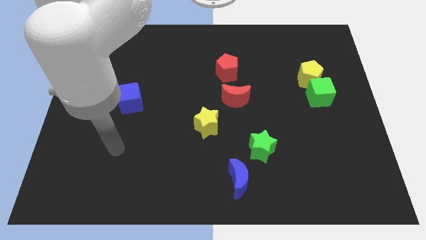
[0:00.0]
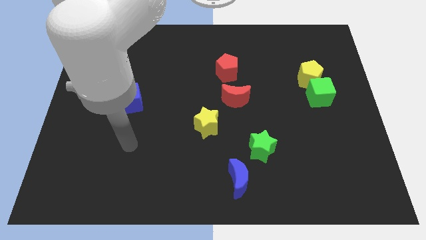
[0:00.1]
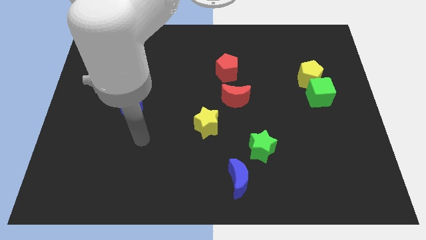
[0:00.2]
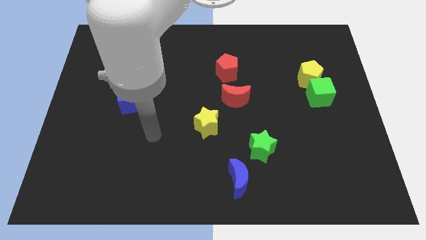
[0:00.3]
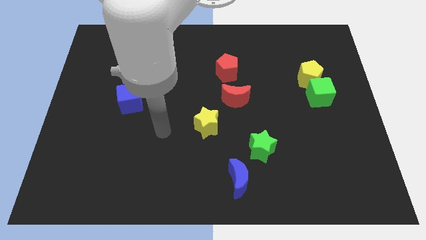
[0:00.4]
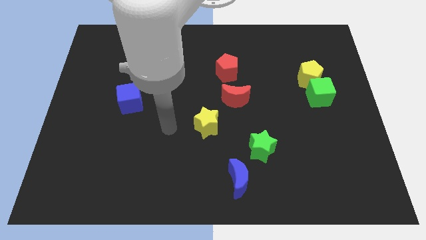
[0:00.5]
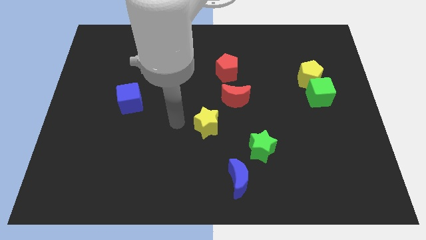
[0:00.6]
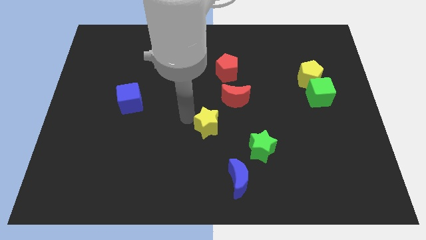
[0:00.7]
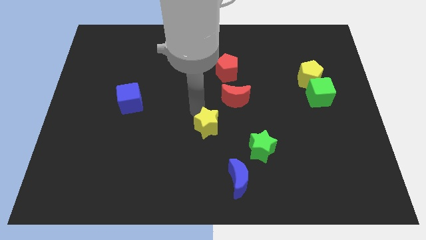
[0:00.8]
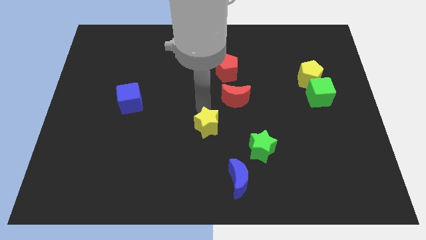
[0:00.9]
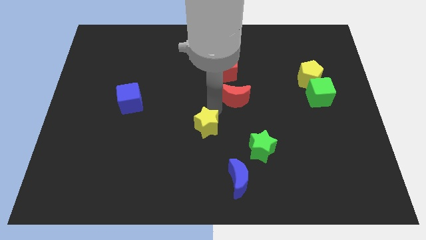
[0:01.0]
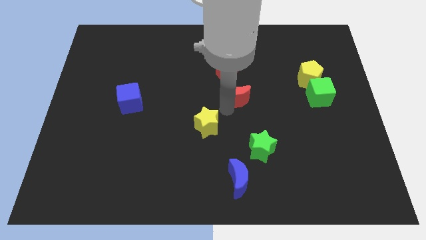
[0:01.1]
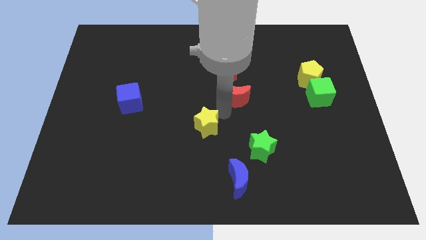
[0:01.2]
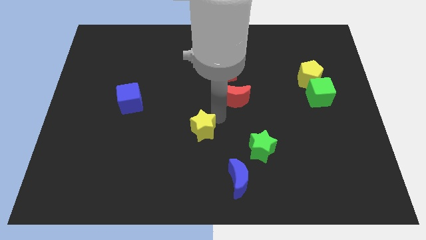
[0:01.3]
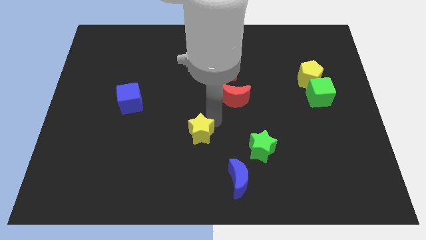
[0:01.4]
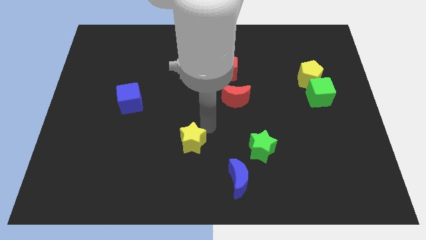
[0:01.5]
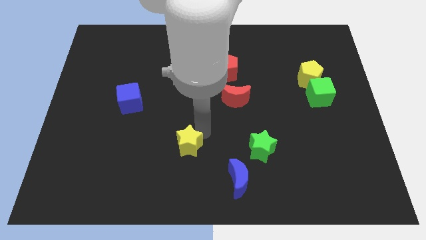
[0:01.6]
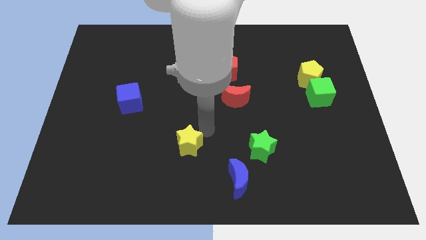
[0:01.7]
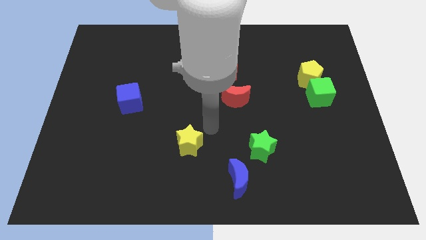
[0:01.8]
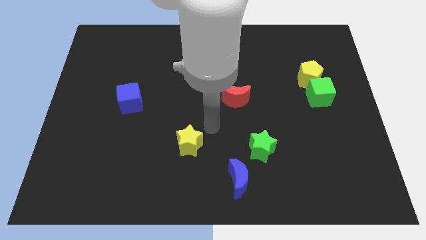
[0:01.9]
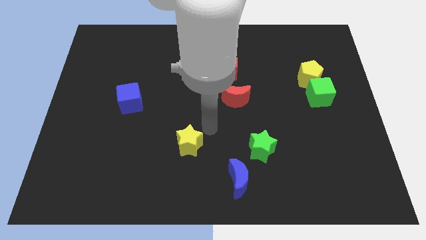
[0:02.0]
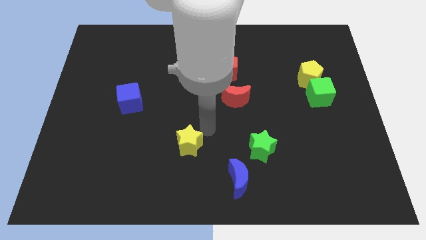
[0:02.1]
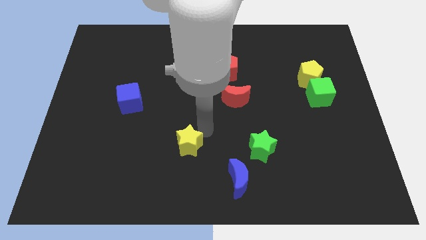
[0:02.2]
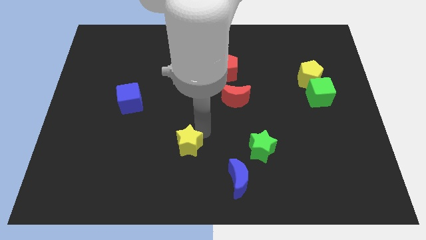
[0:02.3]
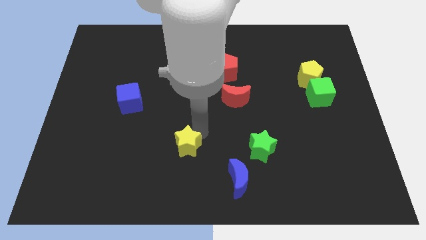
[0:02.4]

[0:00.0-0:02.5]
slightly push the yellow star downwards and then to the left

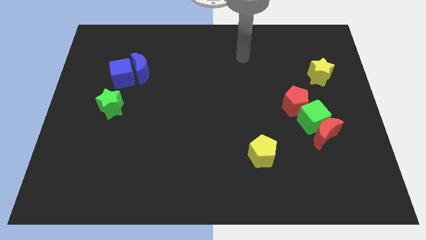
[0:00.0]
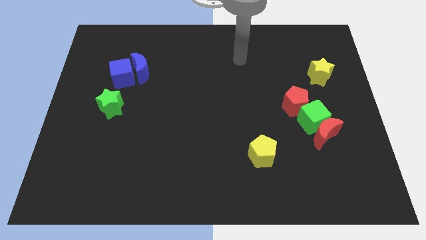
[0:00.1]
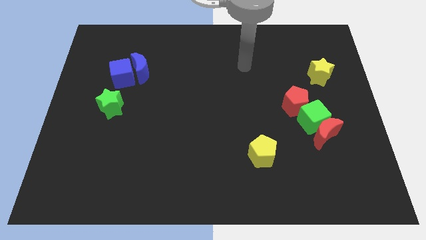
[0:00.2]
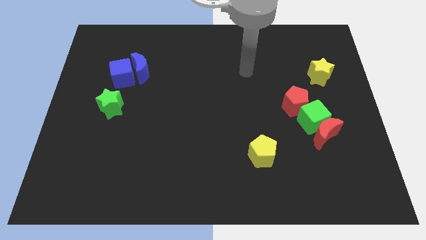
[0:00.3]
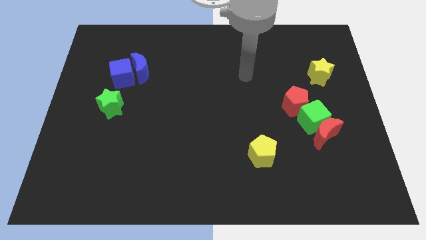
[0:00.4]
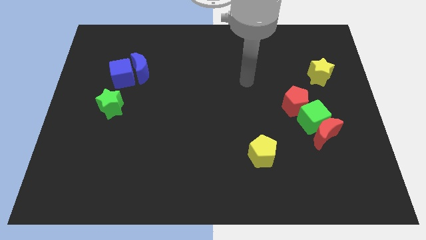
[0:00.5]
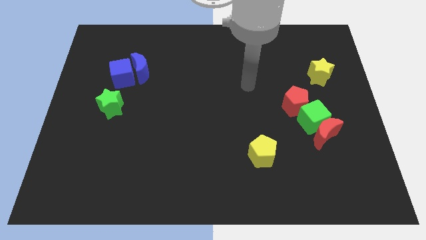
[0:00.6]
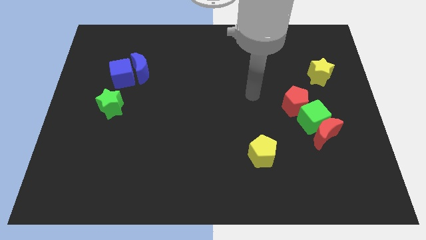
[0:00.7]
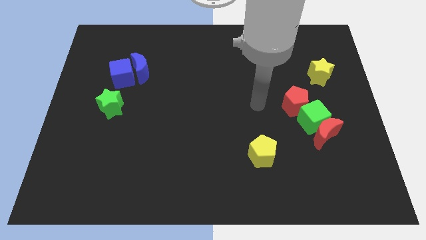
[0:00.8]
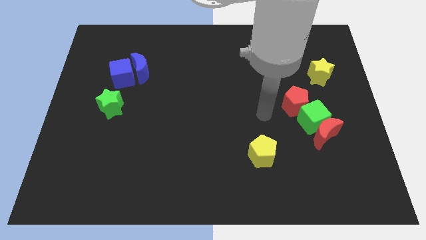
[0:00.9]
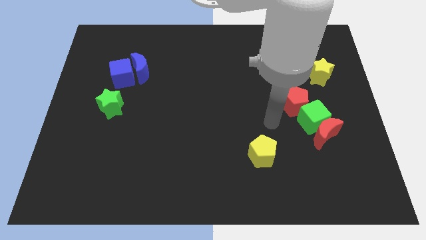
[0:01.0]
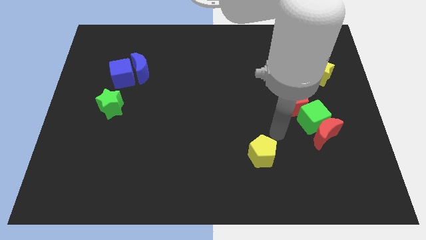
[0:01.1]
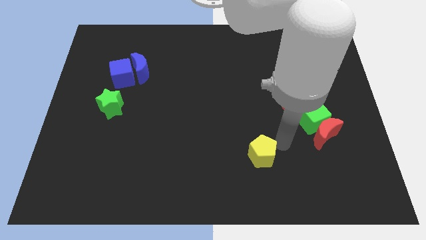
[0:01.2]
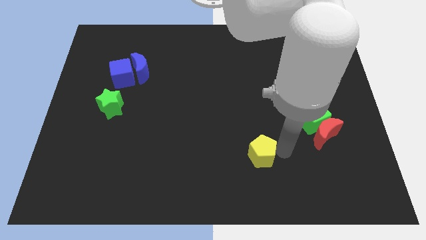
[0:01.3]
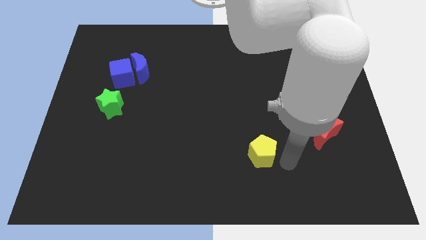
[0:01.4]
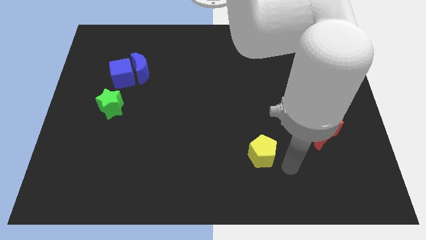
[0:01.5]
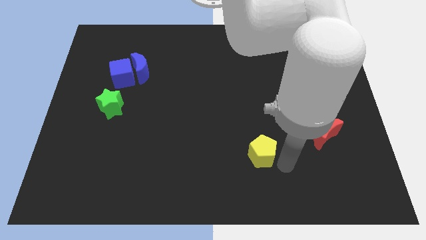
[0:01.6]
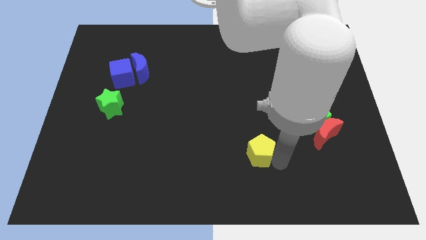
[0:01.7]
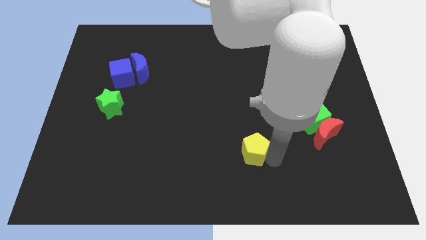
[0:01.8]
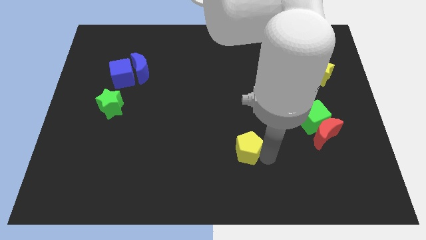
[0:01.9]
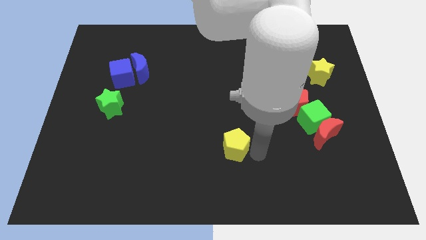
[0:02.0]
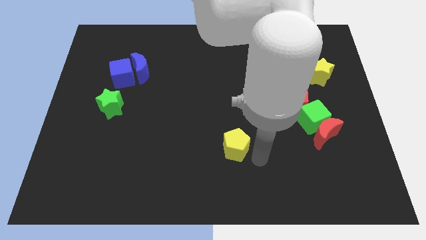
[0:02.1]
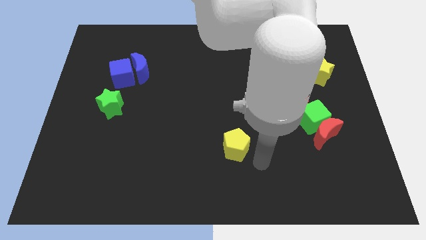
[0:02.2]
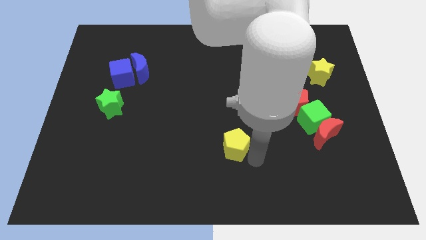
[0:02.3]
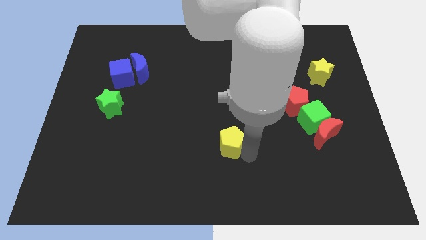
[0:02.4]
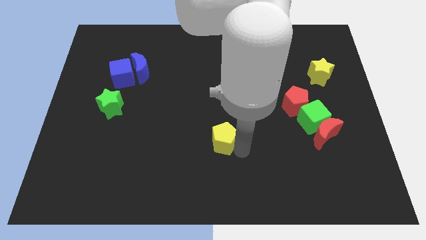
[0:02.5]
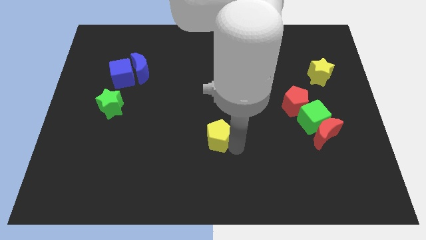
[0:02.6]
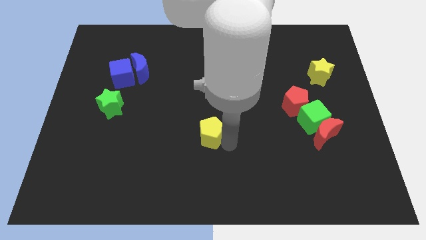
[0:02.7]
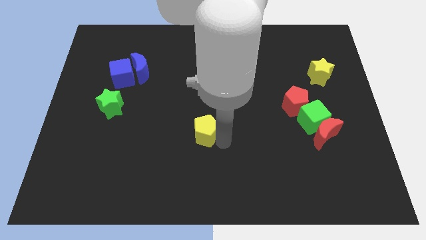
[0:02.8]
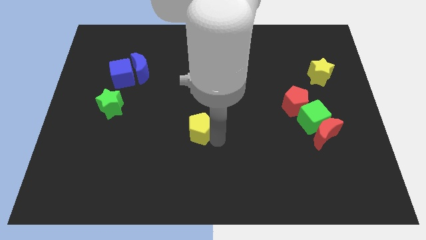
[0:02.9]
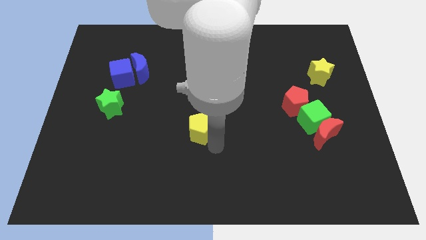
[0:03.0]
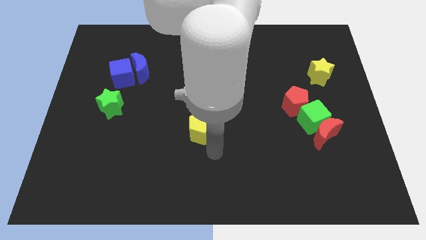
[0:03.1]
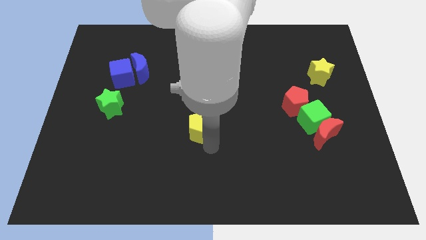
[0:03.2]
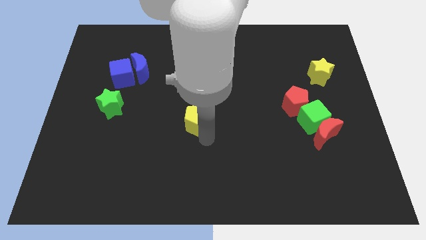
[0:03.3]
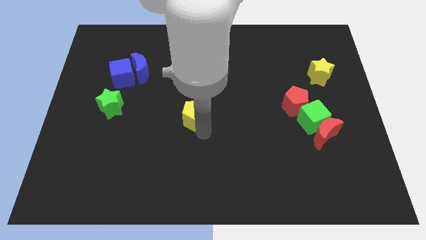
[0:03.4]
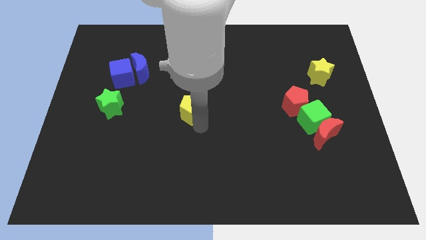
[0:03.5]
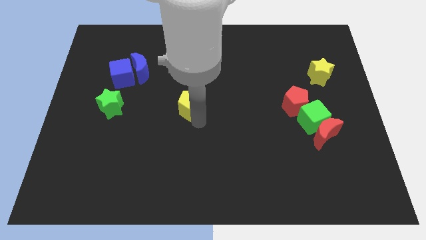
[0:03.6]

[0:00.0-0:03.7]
move the yellow pentagon upwards and left diagonally

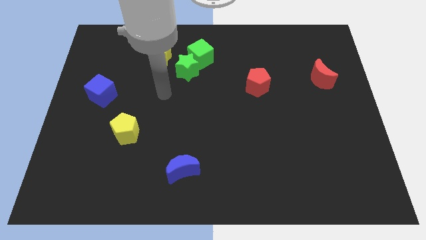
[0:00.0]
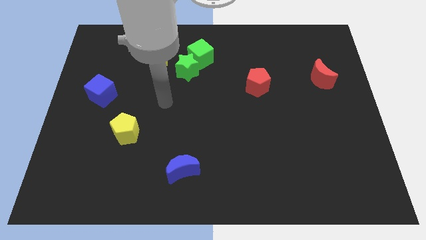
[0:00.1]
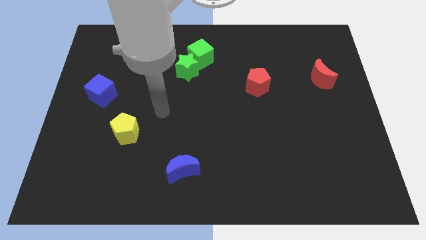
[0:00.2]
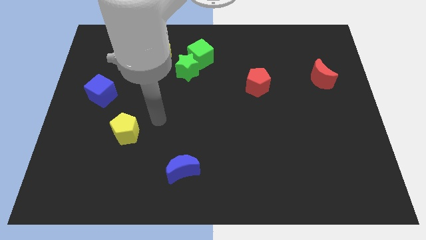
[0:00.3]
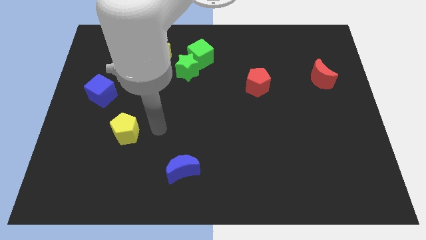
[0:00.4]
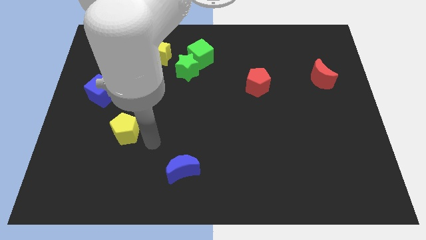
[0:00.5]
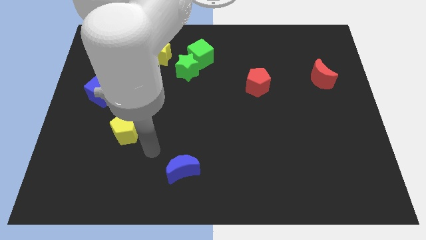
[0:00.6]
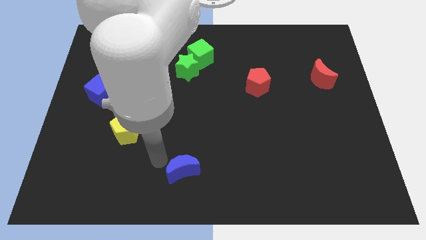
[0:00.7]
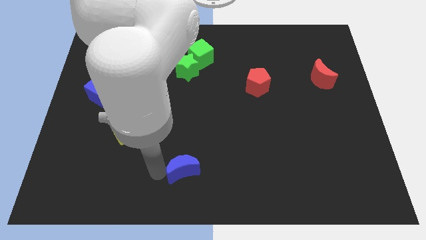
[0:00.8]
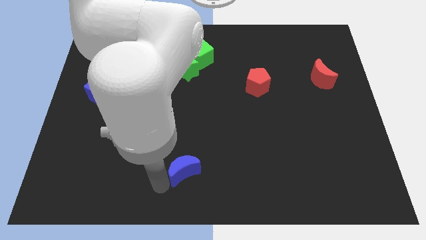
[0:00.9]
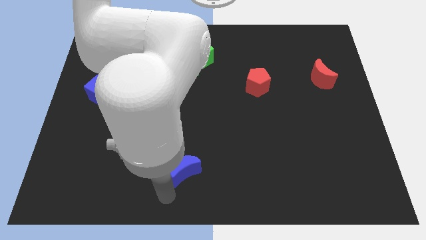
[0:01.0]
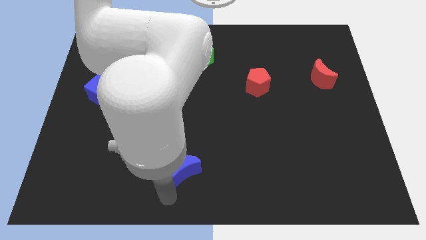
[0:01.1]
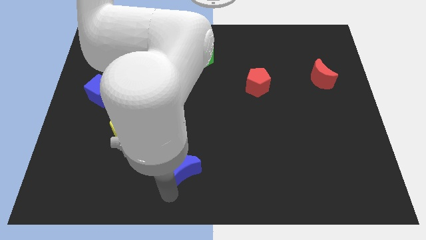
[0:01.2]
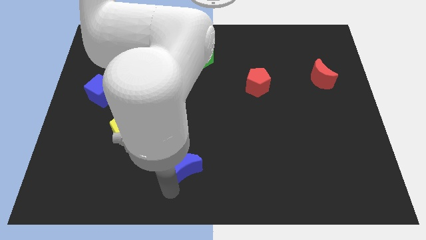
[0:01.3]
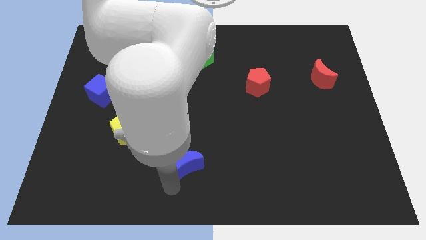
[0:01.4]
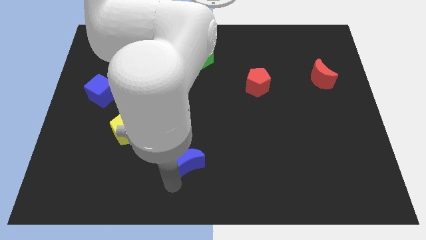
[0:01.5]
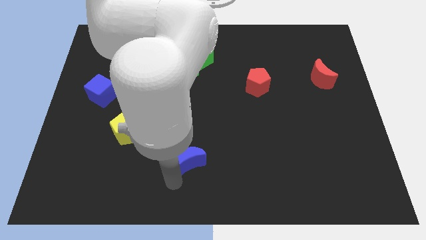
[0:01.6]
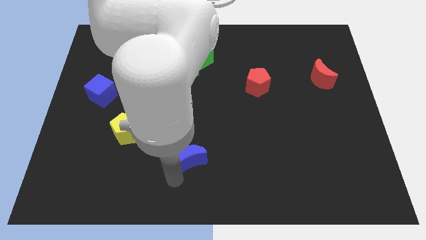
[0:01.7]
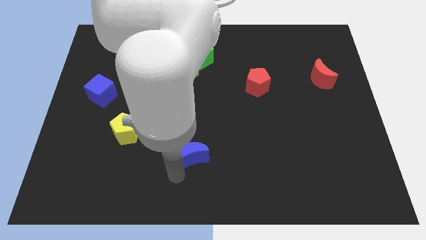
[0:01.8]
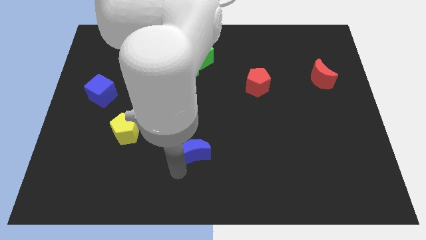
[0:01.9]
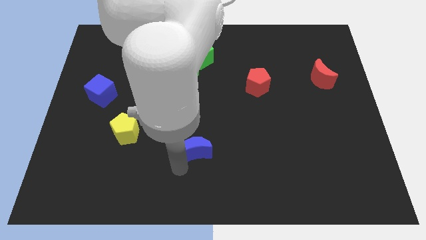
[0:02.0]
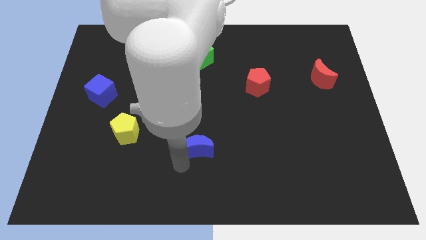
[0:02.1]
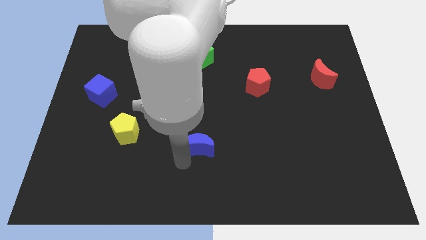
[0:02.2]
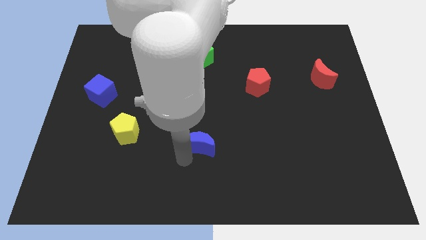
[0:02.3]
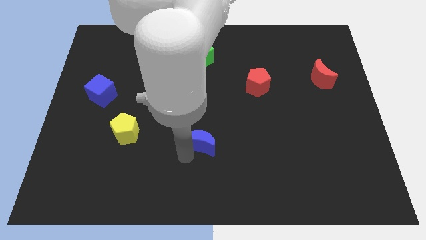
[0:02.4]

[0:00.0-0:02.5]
slide the blue moon a little upwards and then right
